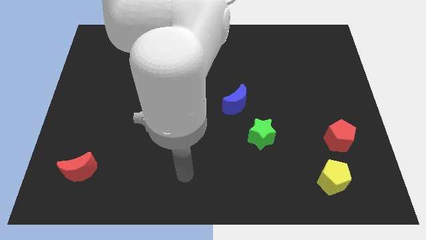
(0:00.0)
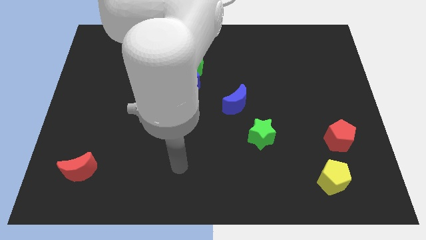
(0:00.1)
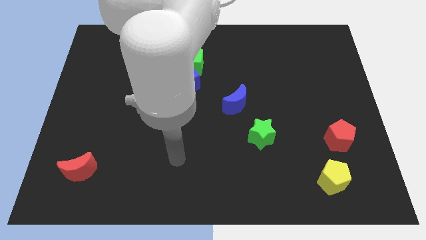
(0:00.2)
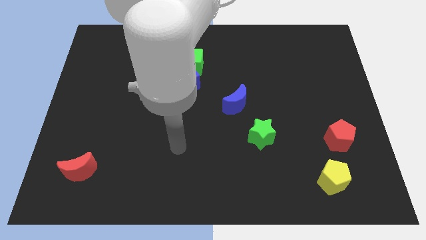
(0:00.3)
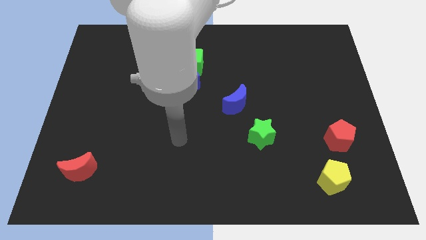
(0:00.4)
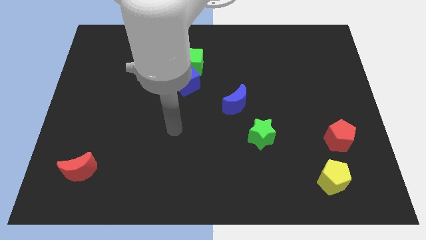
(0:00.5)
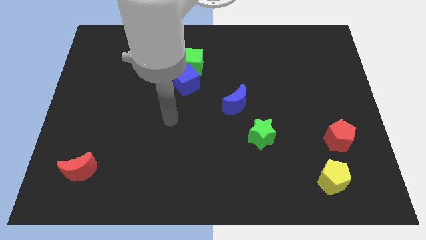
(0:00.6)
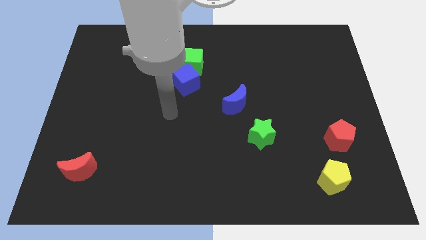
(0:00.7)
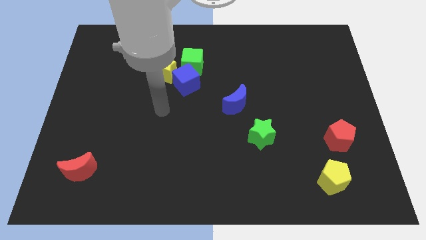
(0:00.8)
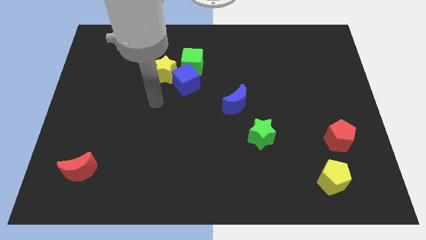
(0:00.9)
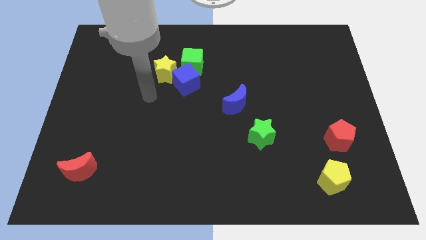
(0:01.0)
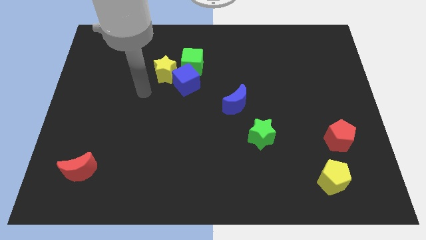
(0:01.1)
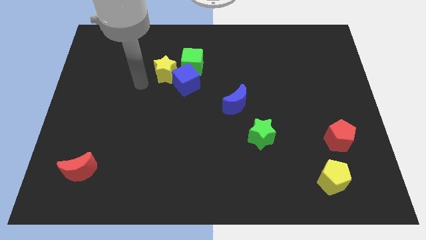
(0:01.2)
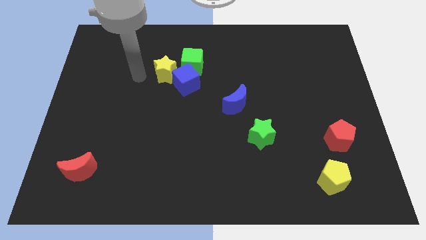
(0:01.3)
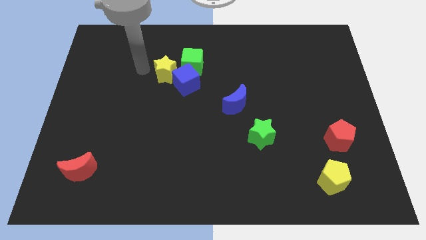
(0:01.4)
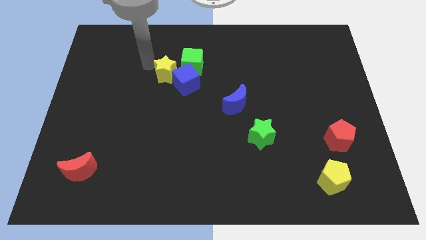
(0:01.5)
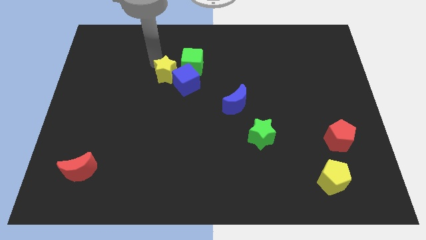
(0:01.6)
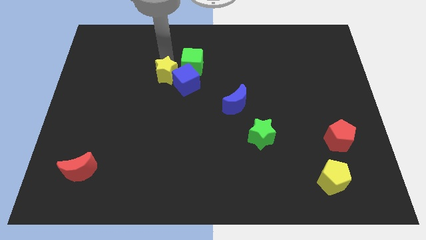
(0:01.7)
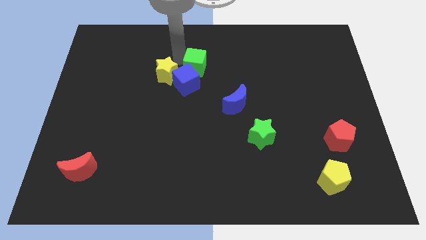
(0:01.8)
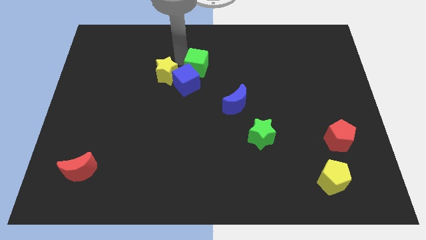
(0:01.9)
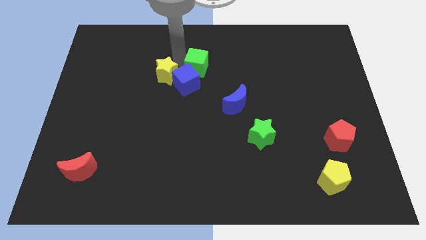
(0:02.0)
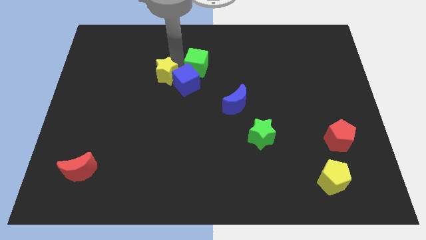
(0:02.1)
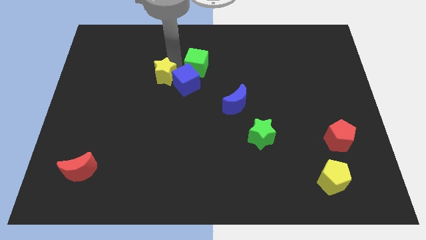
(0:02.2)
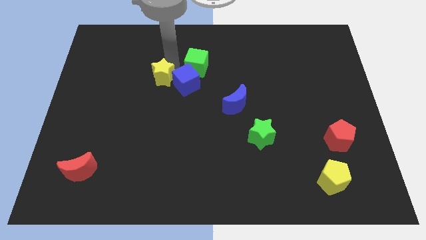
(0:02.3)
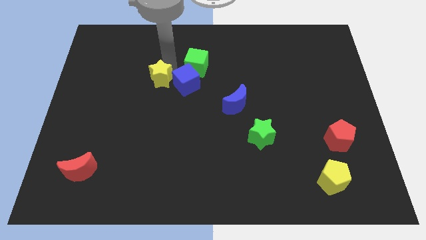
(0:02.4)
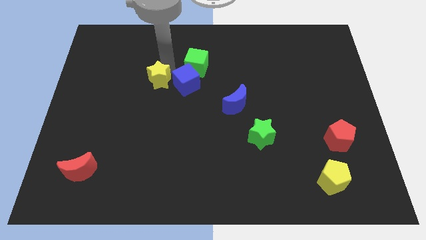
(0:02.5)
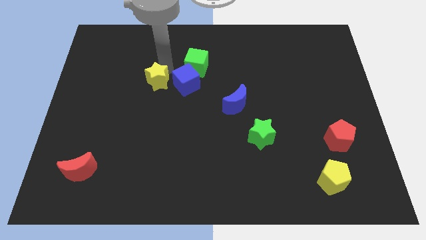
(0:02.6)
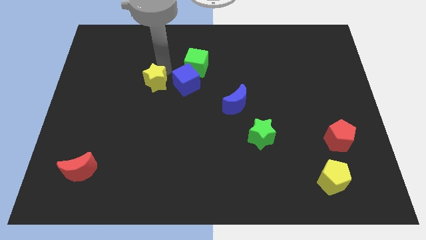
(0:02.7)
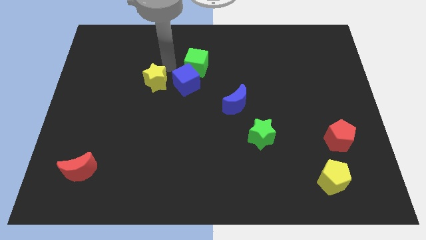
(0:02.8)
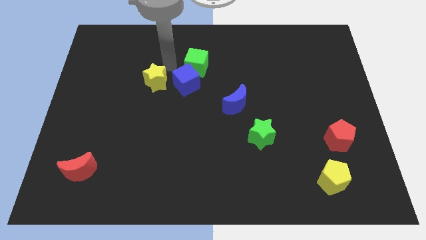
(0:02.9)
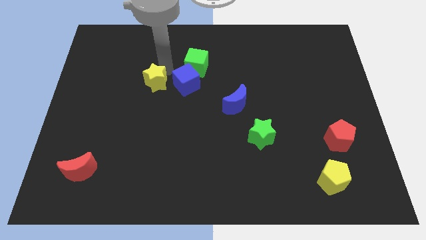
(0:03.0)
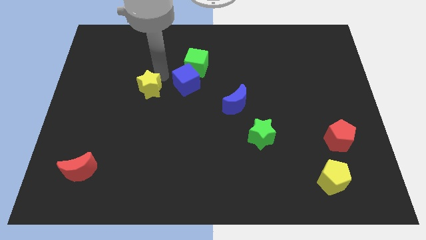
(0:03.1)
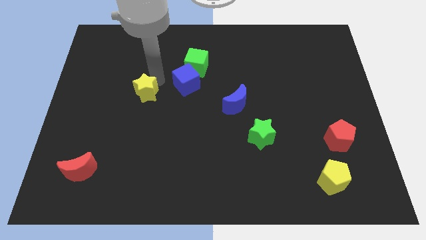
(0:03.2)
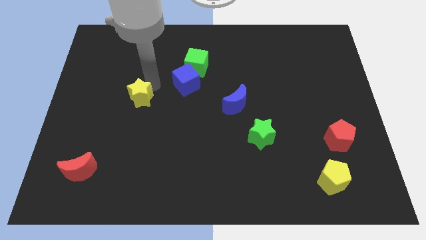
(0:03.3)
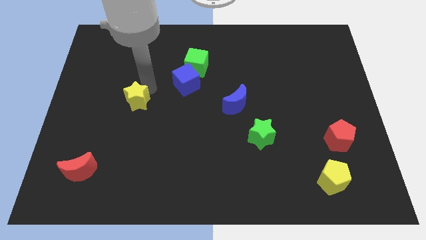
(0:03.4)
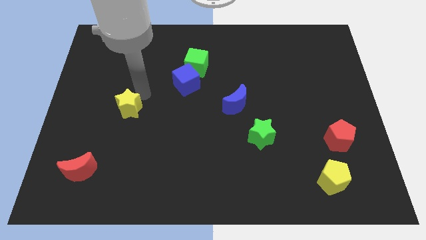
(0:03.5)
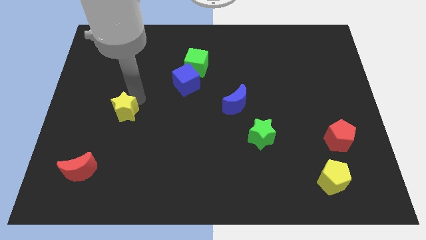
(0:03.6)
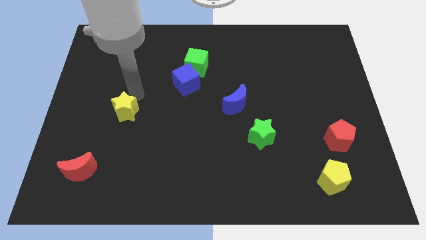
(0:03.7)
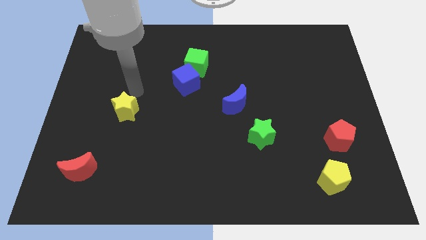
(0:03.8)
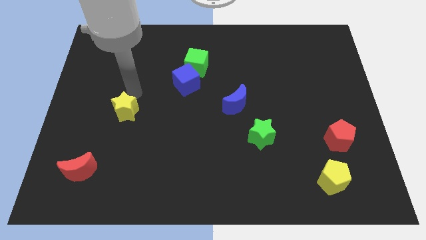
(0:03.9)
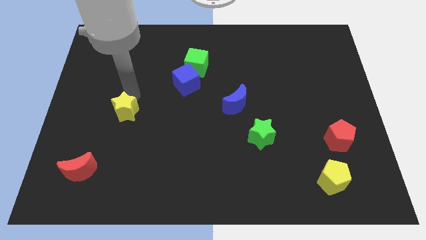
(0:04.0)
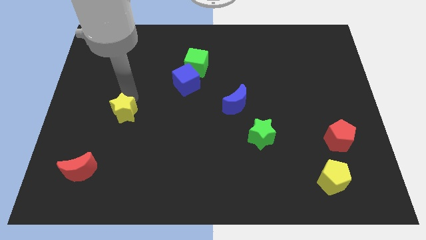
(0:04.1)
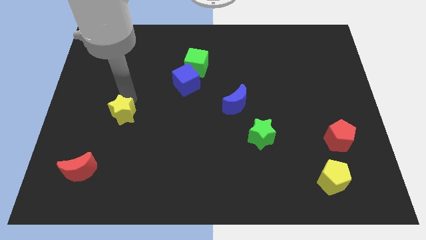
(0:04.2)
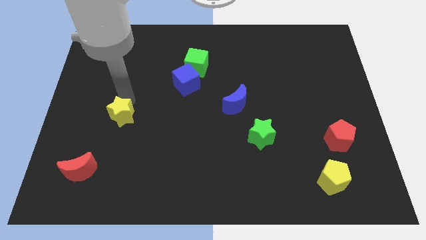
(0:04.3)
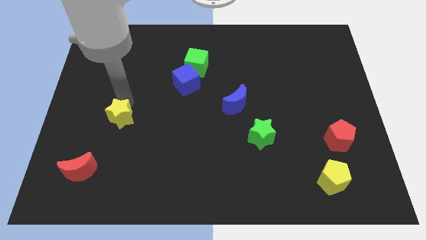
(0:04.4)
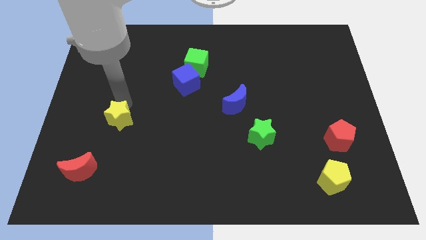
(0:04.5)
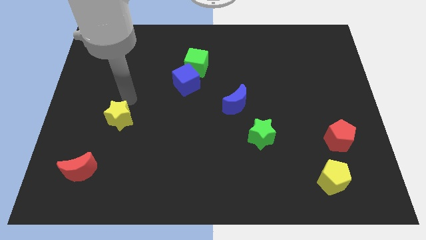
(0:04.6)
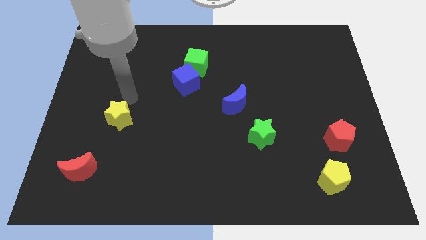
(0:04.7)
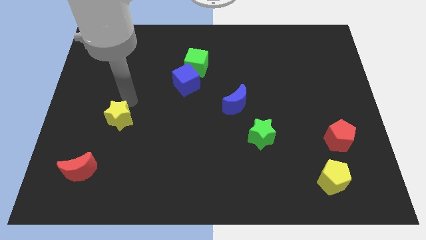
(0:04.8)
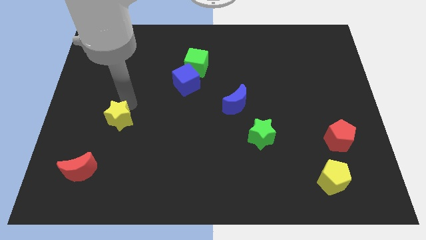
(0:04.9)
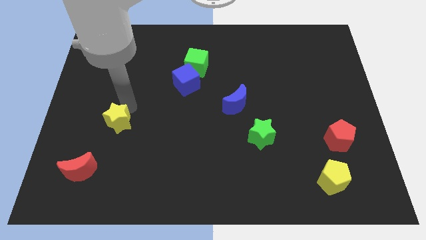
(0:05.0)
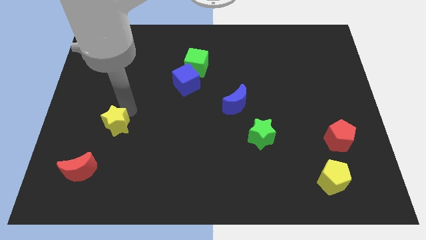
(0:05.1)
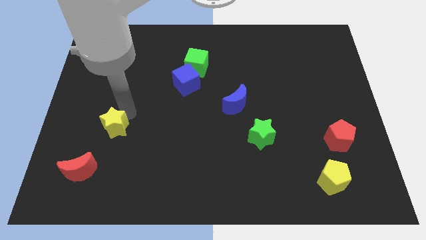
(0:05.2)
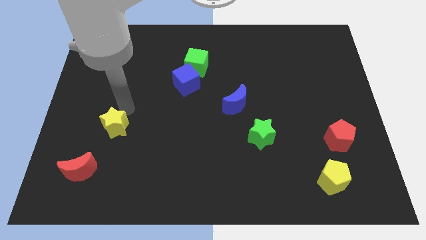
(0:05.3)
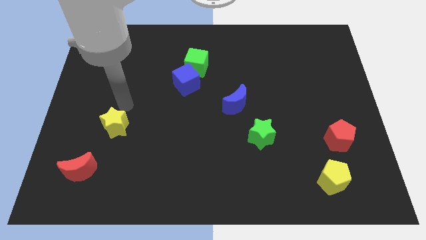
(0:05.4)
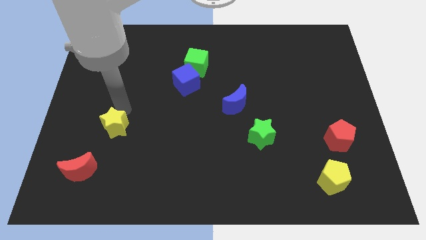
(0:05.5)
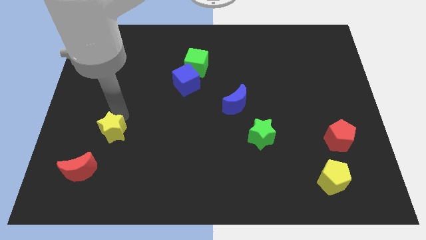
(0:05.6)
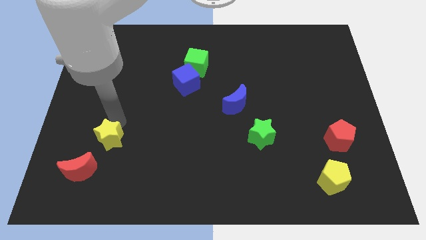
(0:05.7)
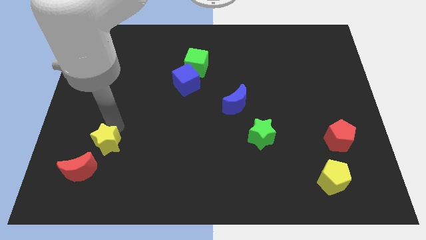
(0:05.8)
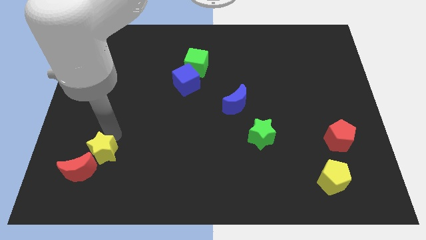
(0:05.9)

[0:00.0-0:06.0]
push the yellow star close to the red moon

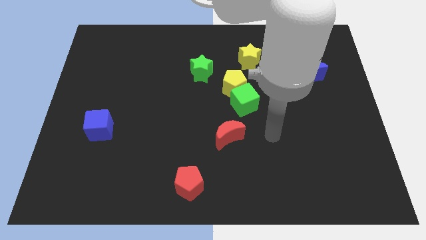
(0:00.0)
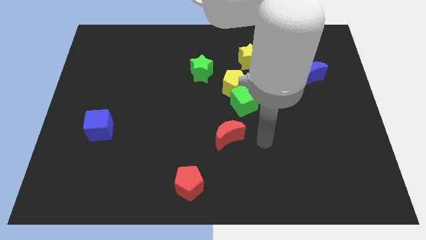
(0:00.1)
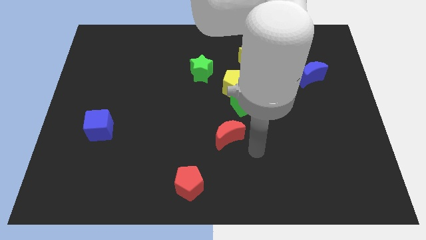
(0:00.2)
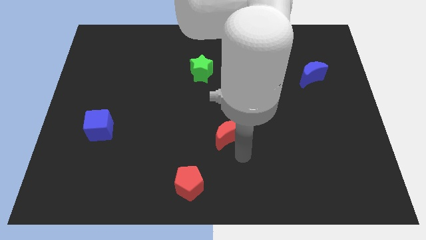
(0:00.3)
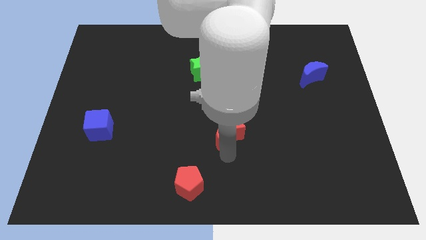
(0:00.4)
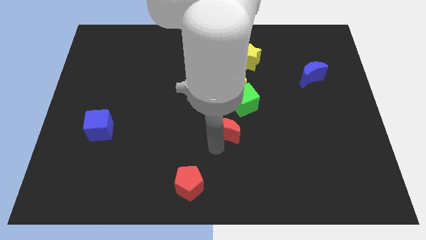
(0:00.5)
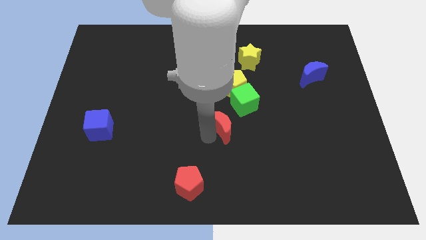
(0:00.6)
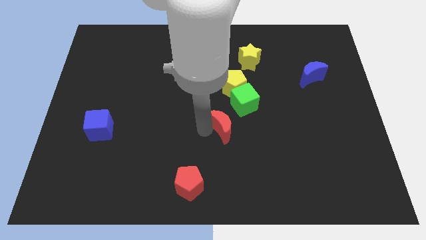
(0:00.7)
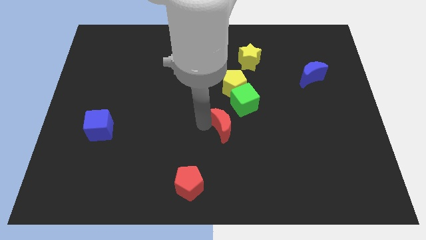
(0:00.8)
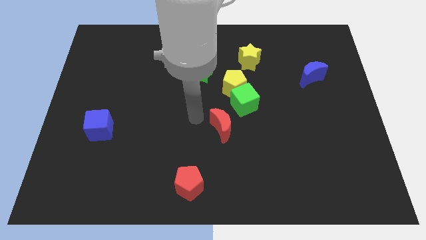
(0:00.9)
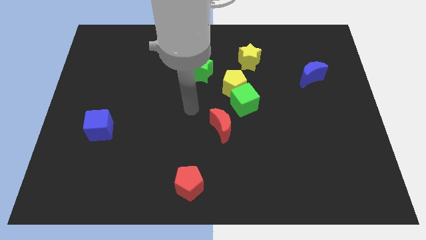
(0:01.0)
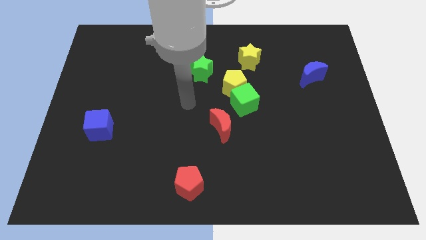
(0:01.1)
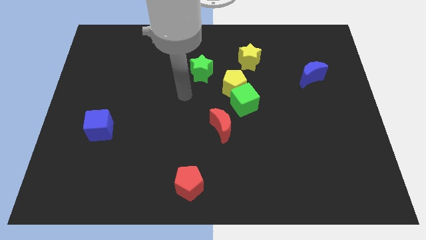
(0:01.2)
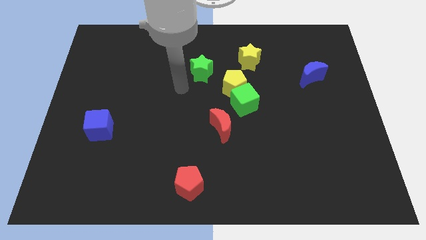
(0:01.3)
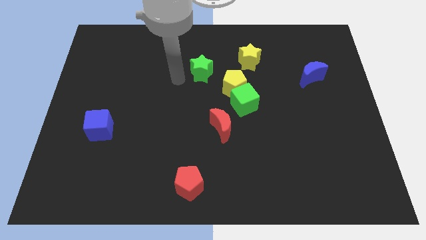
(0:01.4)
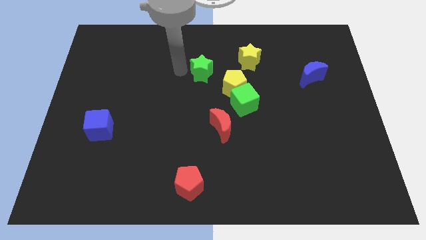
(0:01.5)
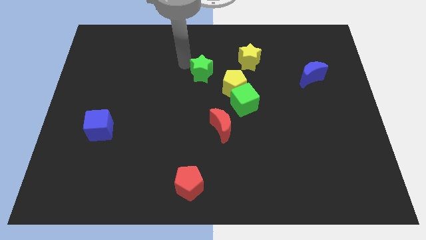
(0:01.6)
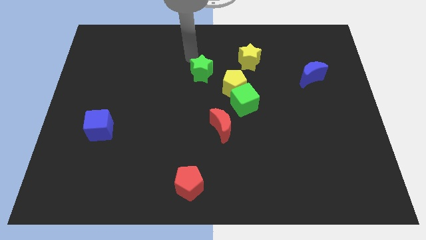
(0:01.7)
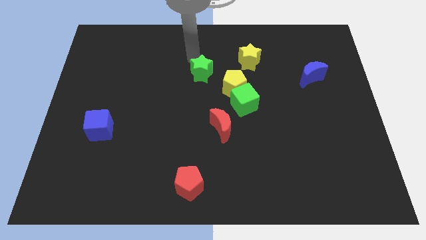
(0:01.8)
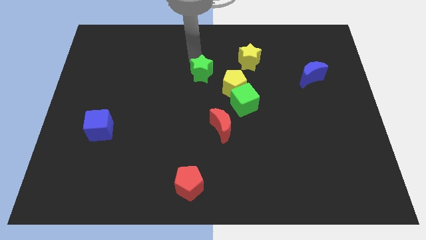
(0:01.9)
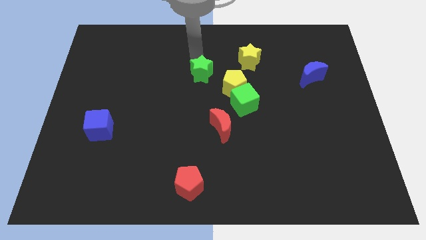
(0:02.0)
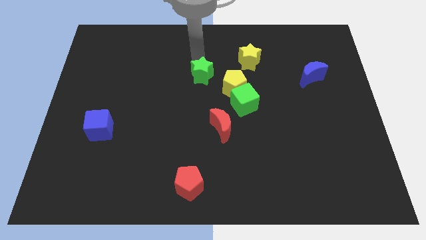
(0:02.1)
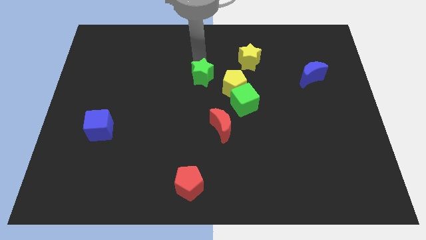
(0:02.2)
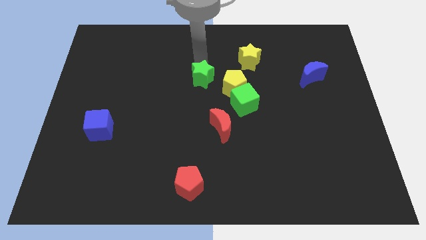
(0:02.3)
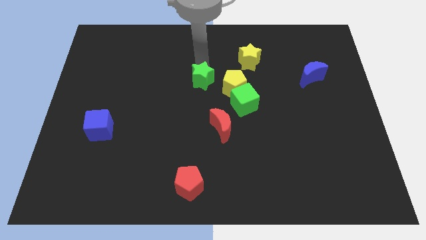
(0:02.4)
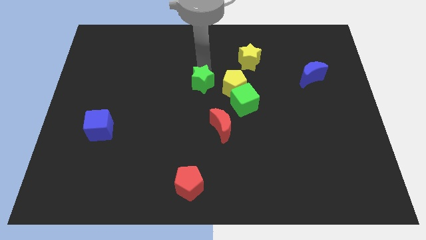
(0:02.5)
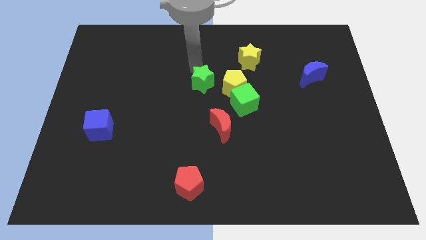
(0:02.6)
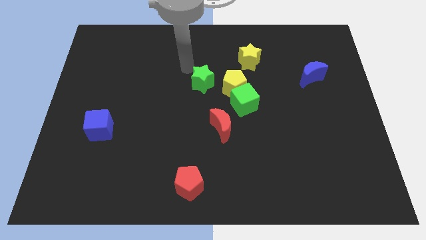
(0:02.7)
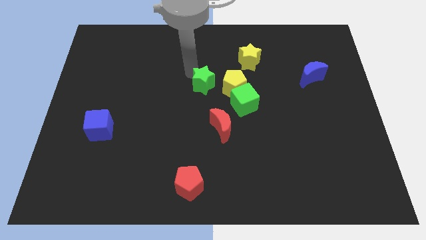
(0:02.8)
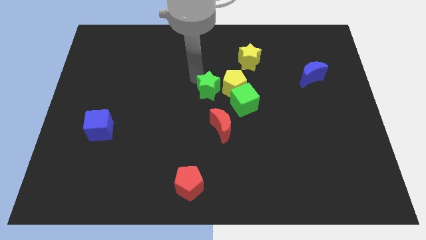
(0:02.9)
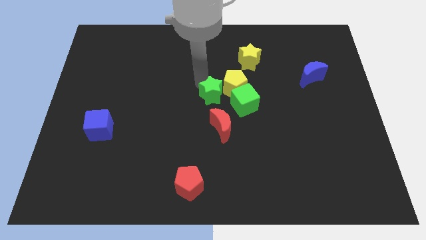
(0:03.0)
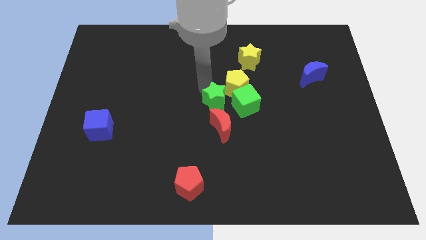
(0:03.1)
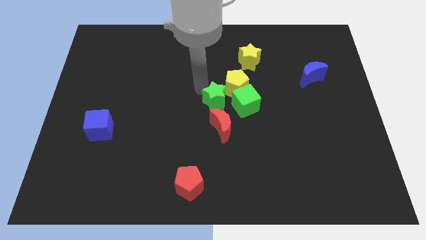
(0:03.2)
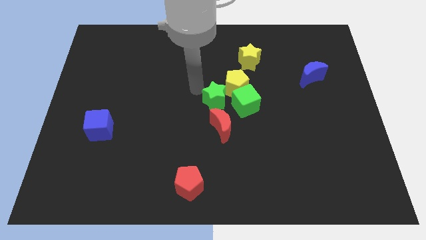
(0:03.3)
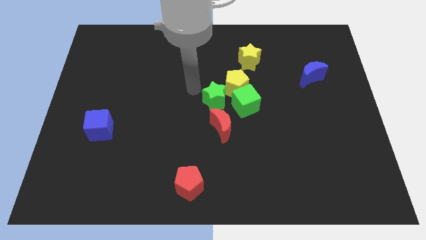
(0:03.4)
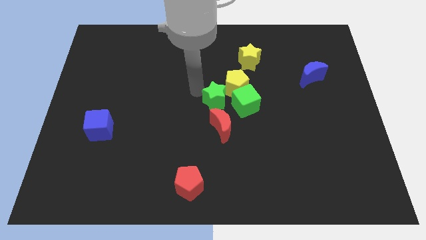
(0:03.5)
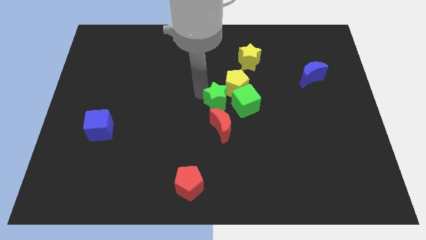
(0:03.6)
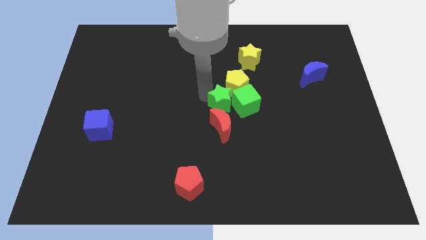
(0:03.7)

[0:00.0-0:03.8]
put the green star next to the green cube
